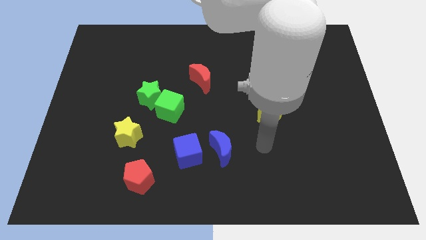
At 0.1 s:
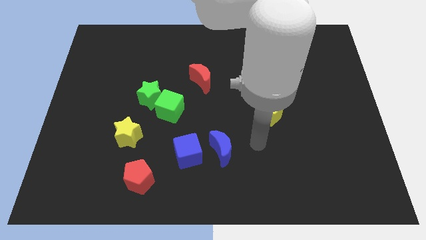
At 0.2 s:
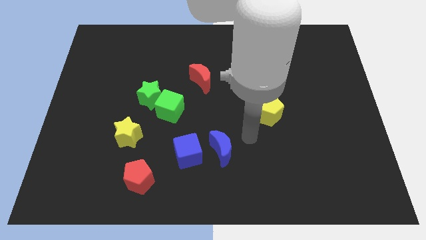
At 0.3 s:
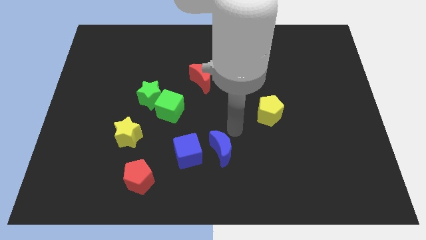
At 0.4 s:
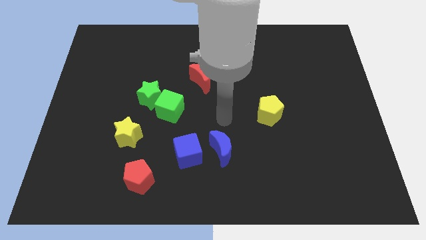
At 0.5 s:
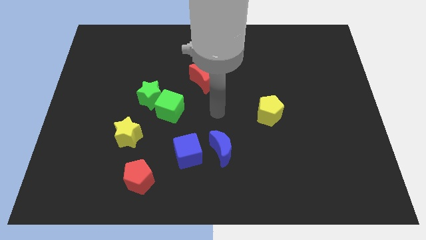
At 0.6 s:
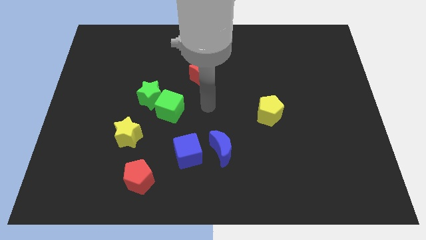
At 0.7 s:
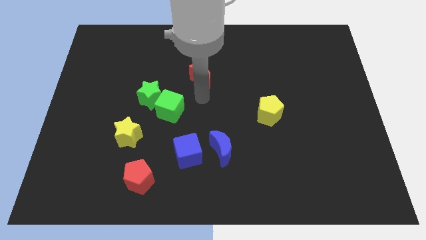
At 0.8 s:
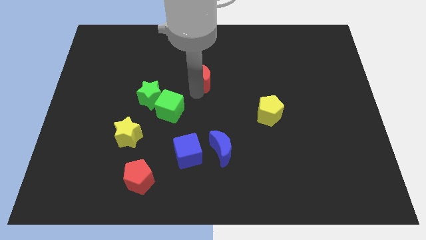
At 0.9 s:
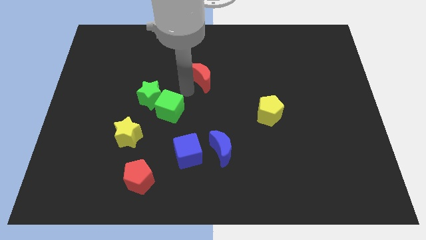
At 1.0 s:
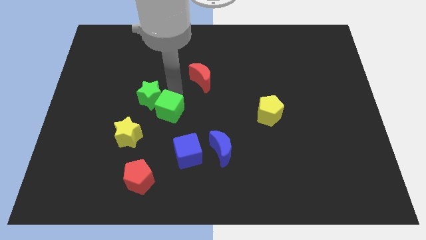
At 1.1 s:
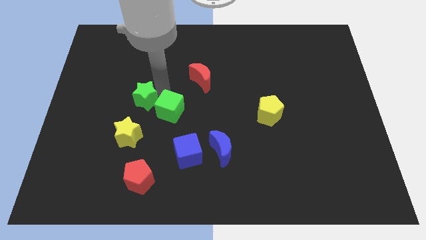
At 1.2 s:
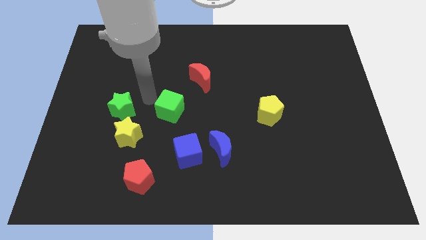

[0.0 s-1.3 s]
separate the green cube from the green star

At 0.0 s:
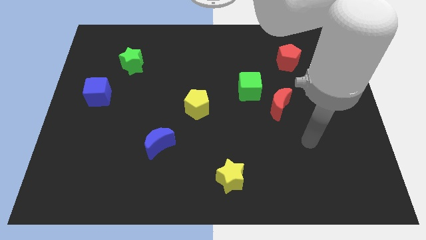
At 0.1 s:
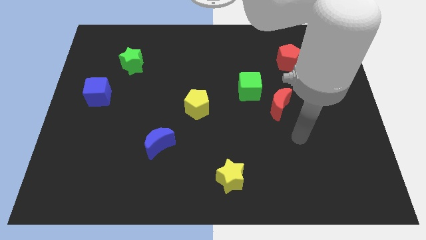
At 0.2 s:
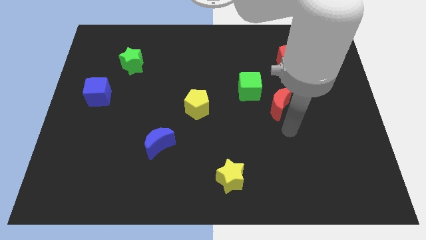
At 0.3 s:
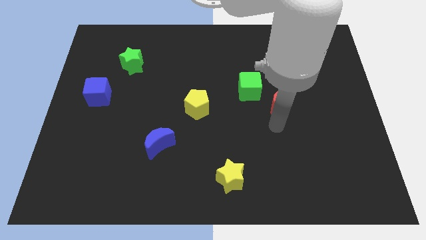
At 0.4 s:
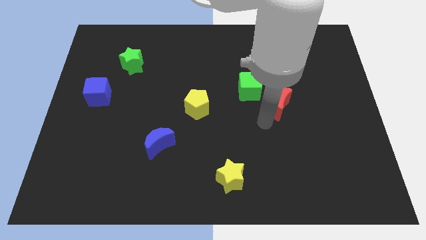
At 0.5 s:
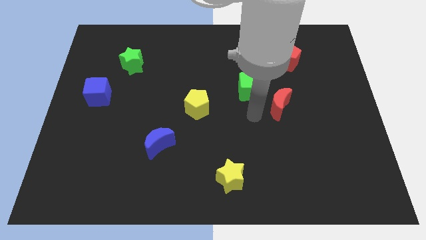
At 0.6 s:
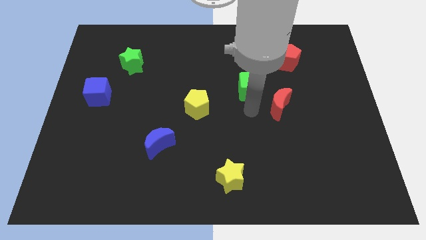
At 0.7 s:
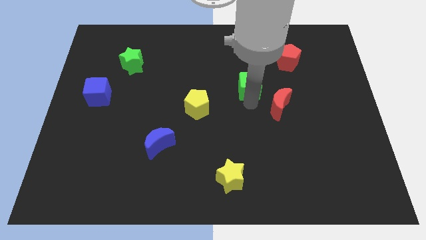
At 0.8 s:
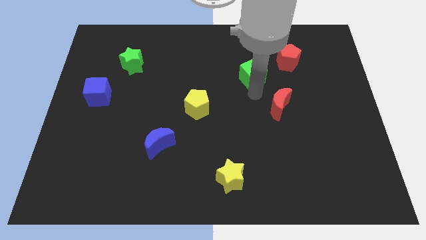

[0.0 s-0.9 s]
pull the red moon apart from the green cube

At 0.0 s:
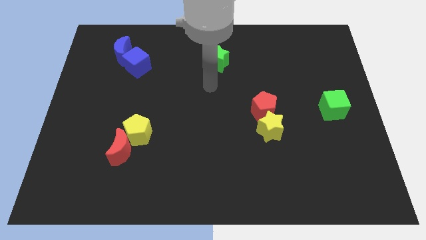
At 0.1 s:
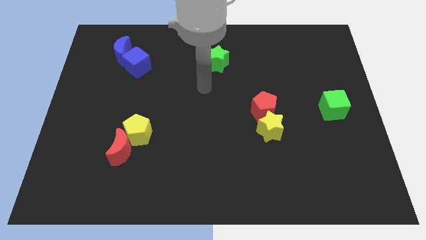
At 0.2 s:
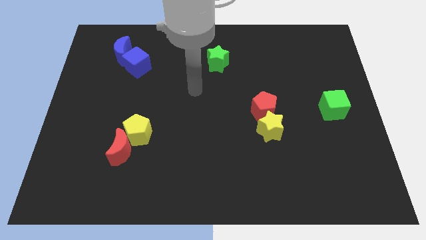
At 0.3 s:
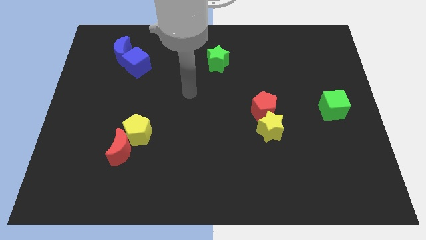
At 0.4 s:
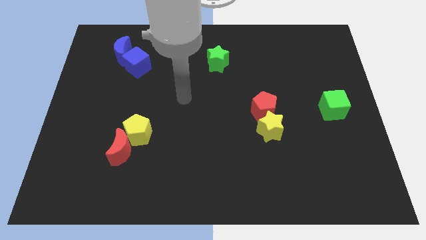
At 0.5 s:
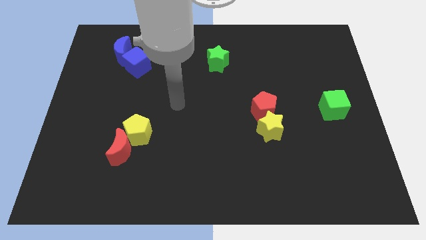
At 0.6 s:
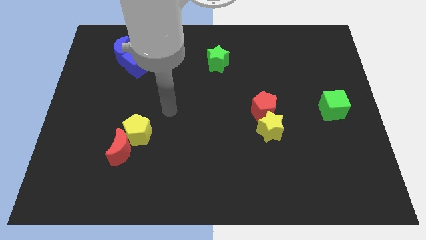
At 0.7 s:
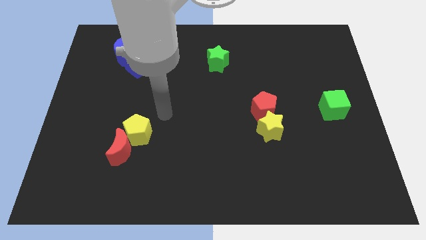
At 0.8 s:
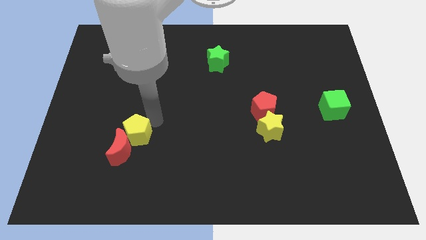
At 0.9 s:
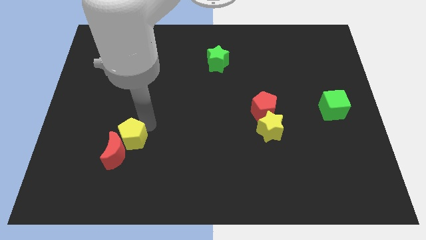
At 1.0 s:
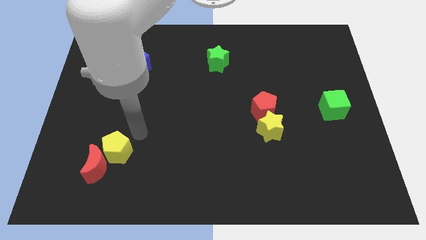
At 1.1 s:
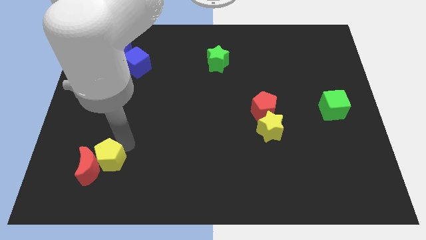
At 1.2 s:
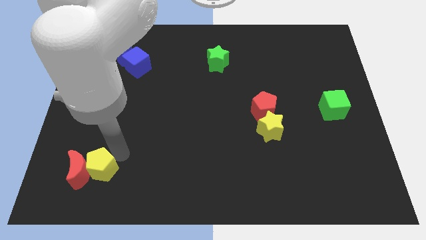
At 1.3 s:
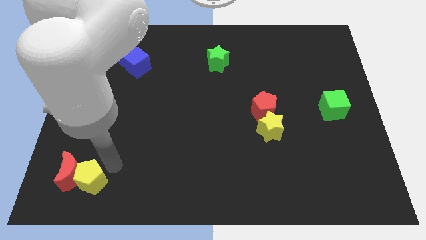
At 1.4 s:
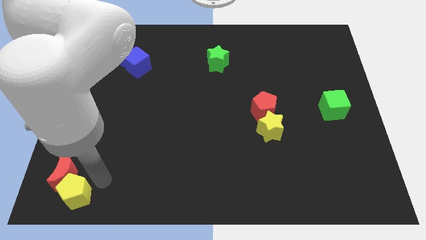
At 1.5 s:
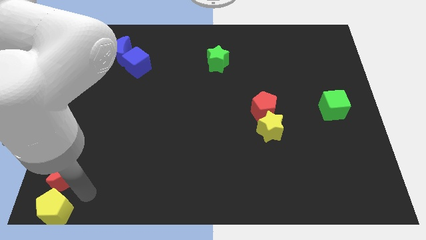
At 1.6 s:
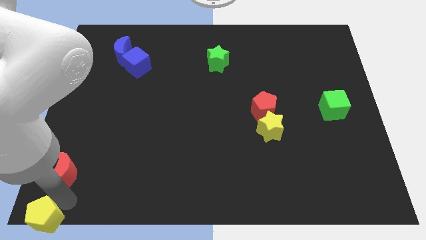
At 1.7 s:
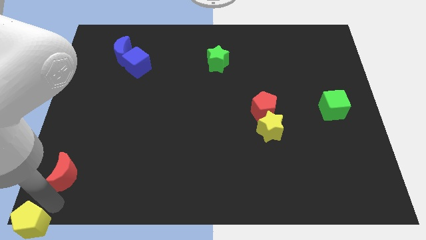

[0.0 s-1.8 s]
pull the red moon apart from the yellow pentagon

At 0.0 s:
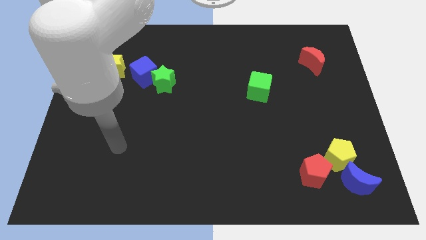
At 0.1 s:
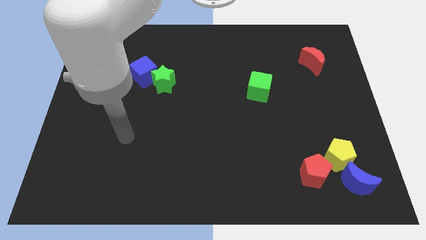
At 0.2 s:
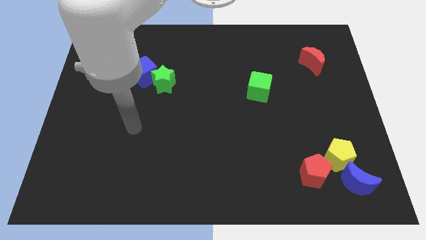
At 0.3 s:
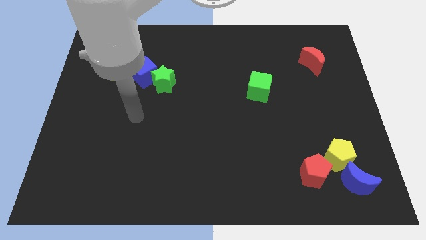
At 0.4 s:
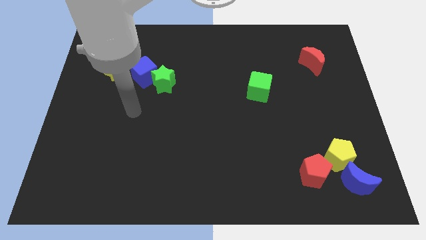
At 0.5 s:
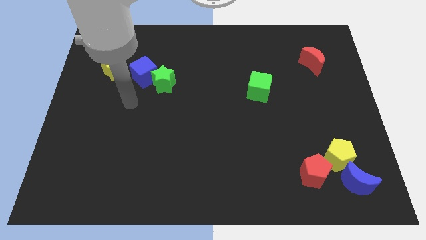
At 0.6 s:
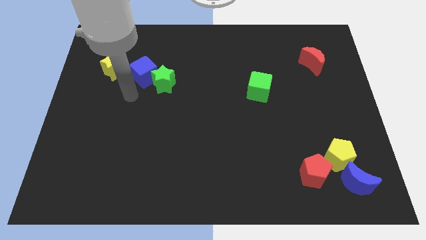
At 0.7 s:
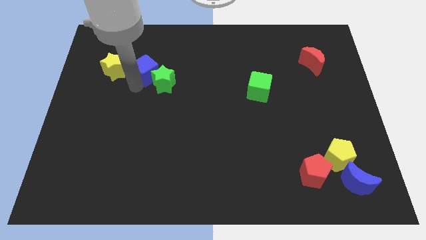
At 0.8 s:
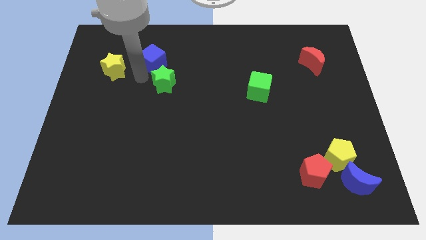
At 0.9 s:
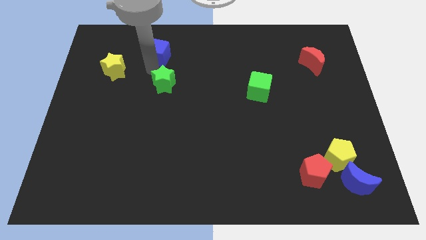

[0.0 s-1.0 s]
pull the green star apart from the blue cube

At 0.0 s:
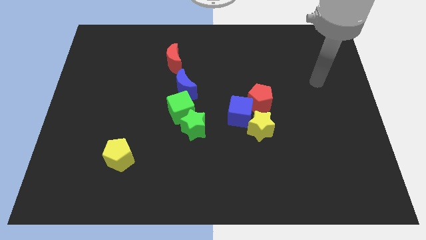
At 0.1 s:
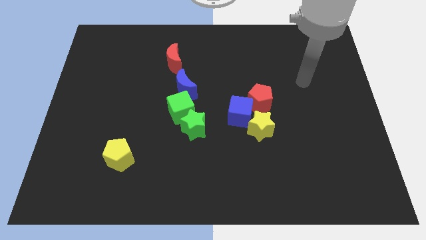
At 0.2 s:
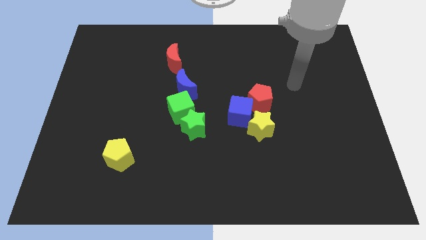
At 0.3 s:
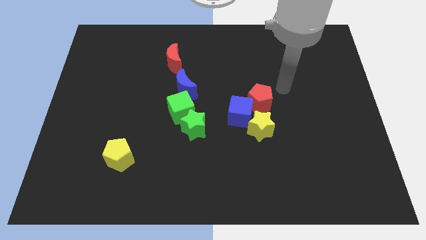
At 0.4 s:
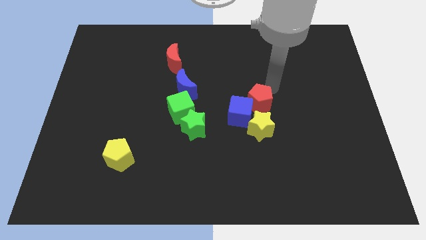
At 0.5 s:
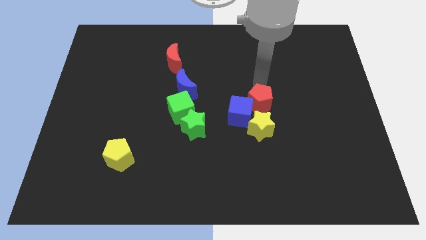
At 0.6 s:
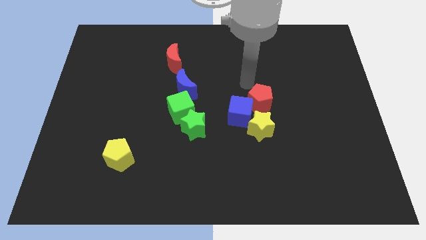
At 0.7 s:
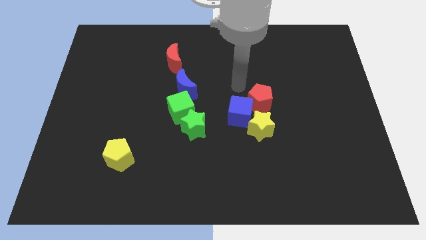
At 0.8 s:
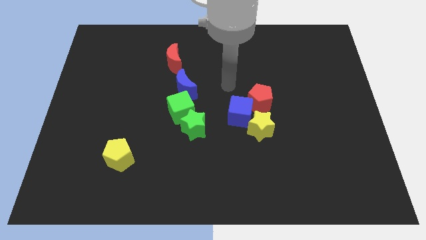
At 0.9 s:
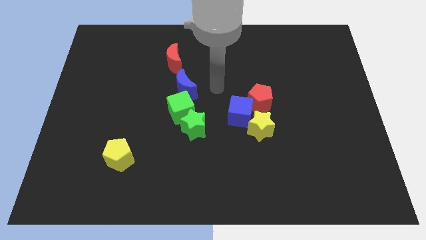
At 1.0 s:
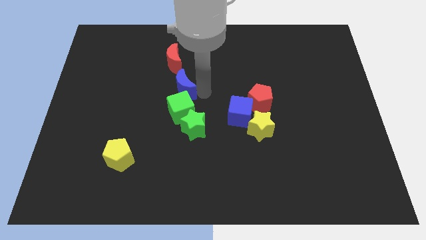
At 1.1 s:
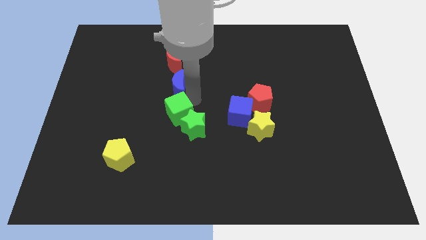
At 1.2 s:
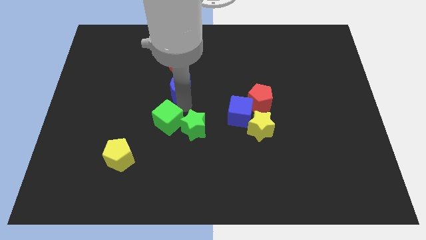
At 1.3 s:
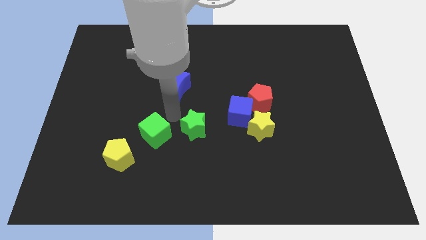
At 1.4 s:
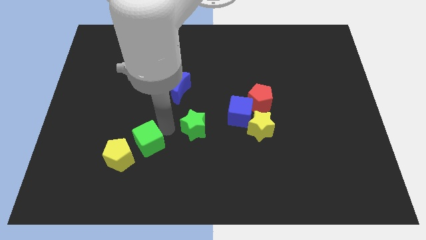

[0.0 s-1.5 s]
separate the green star from the green cube

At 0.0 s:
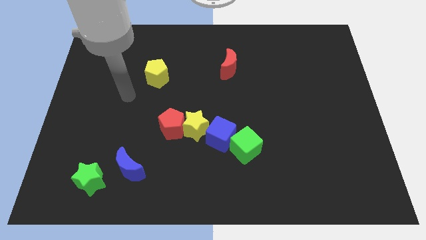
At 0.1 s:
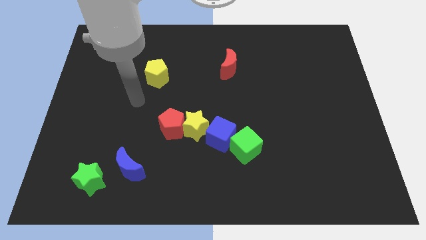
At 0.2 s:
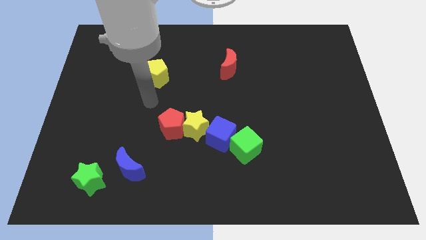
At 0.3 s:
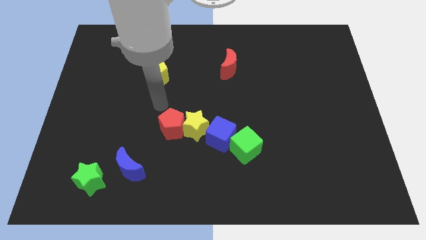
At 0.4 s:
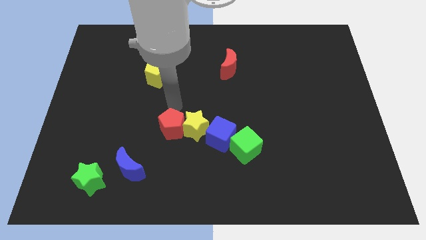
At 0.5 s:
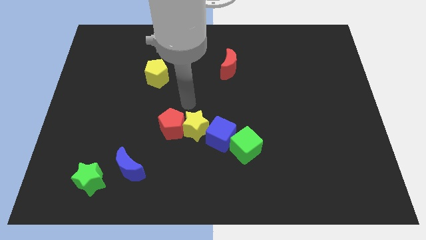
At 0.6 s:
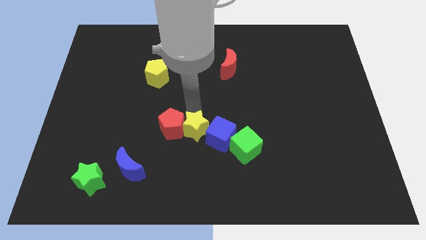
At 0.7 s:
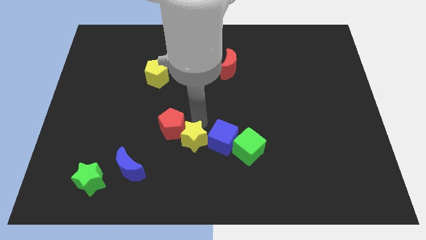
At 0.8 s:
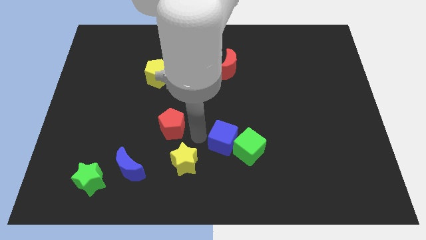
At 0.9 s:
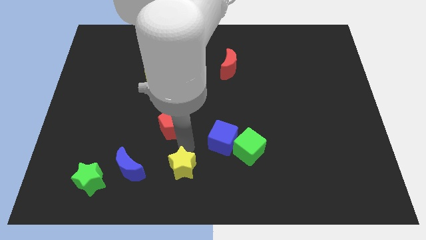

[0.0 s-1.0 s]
separate the red pentagon from the yellow star

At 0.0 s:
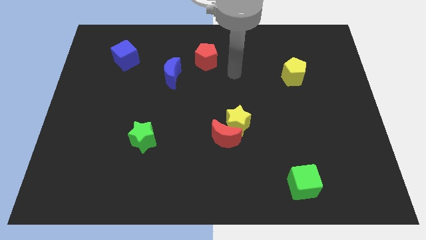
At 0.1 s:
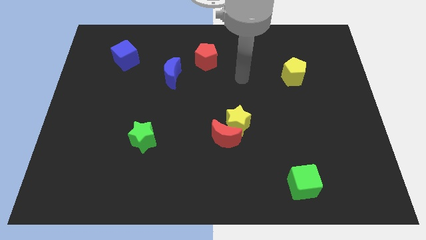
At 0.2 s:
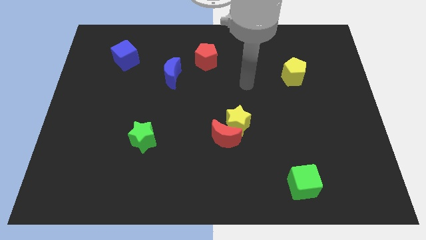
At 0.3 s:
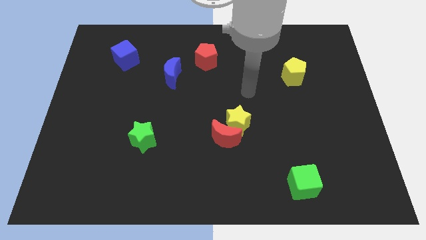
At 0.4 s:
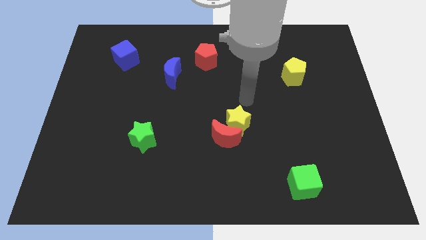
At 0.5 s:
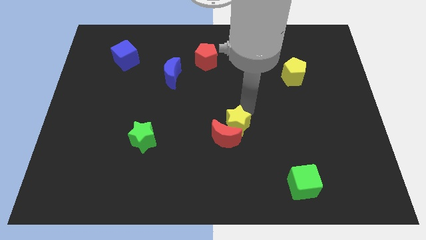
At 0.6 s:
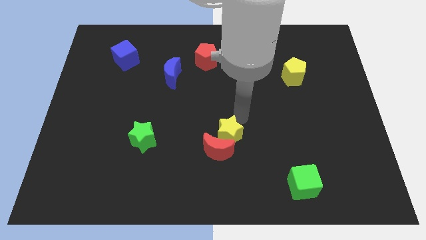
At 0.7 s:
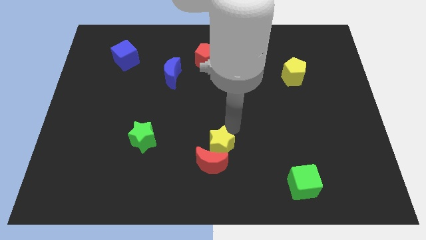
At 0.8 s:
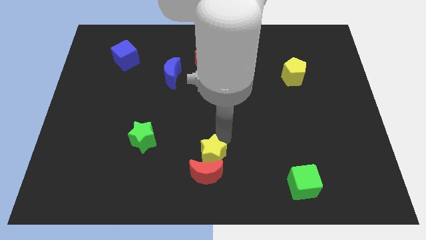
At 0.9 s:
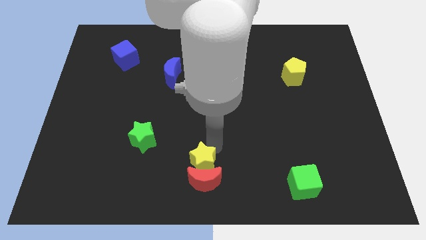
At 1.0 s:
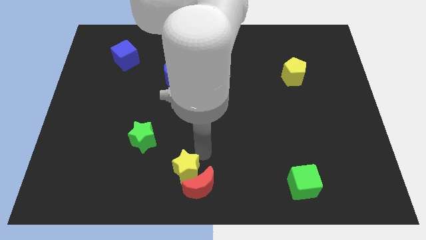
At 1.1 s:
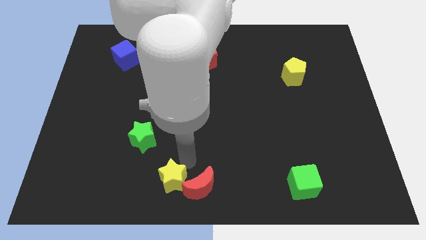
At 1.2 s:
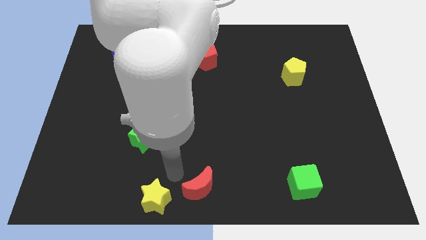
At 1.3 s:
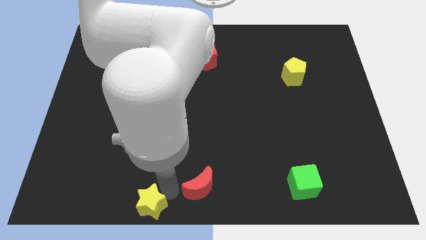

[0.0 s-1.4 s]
pull the red moon apart from the yellow star

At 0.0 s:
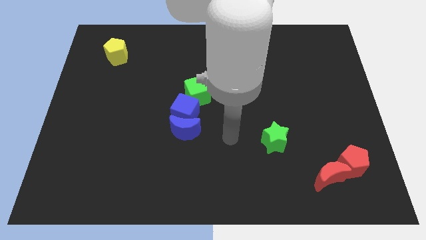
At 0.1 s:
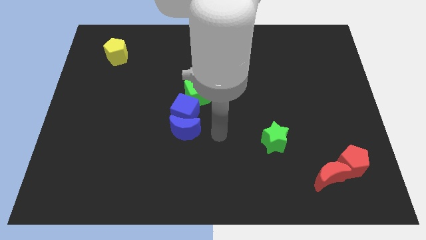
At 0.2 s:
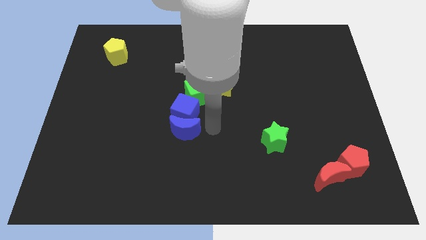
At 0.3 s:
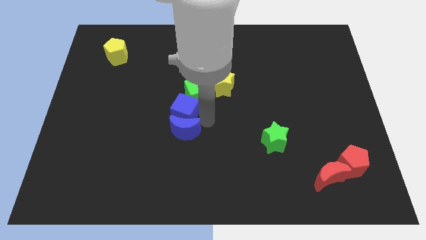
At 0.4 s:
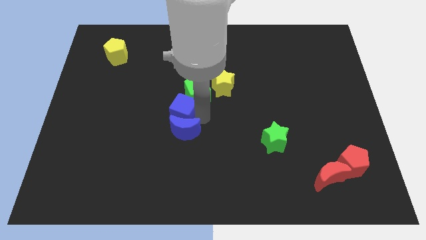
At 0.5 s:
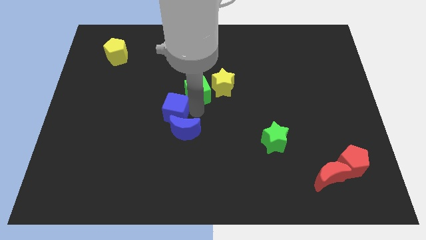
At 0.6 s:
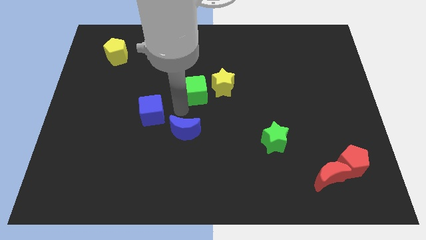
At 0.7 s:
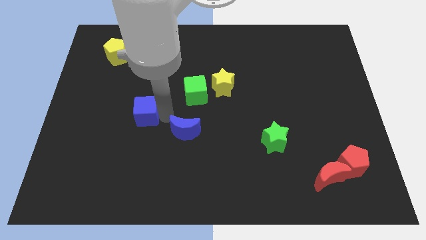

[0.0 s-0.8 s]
separate the blue moon from the blue cube
